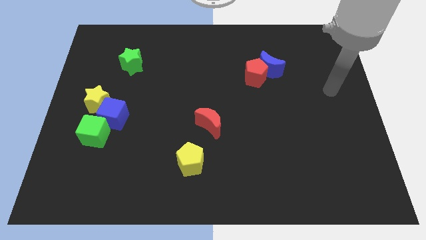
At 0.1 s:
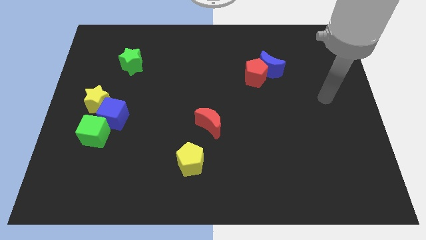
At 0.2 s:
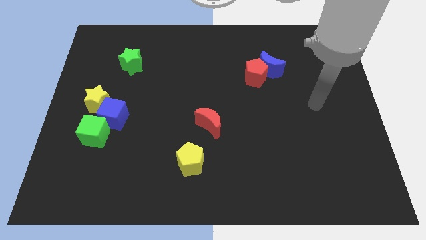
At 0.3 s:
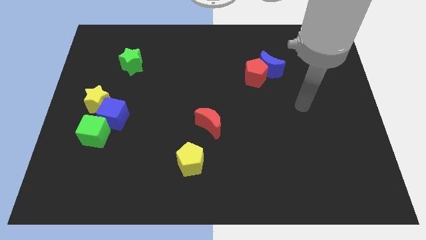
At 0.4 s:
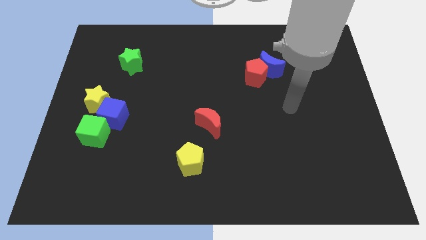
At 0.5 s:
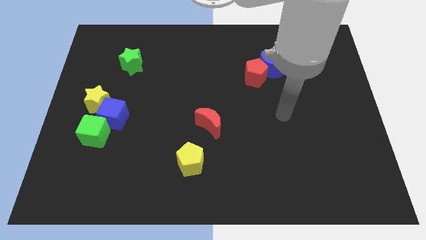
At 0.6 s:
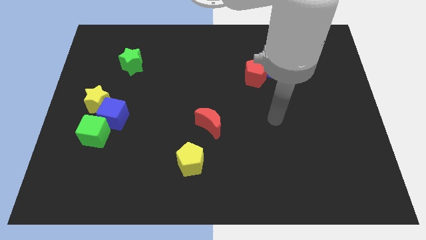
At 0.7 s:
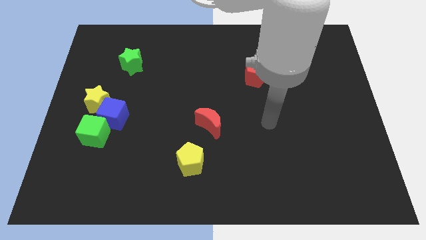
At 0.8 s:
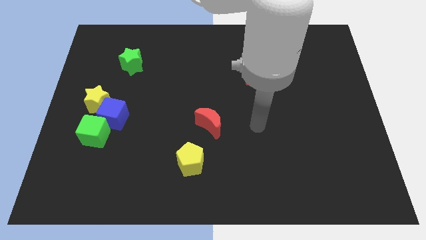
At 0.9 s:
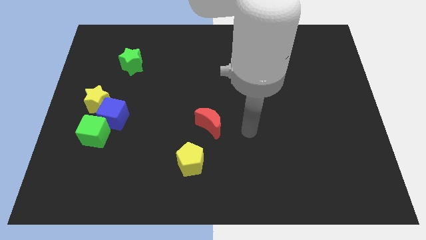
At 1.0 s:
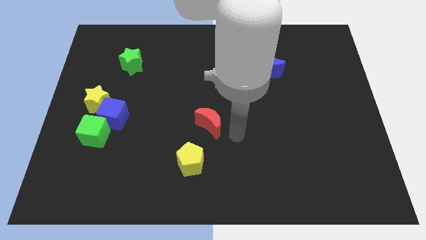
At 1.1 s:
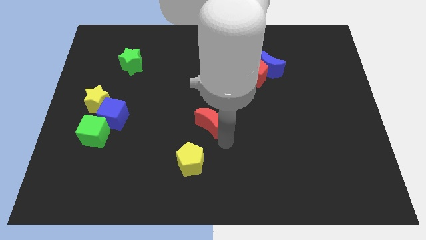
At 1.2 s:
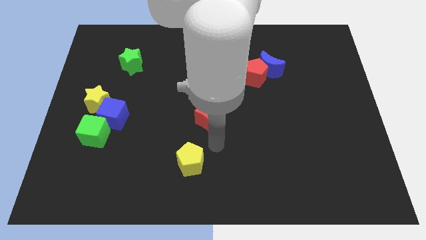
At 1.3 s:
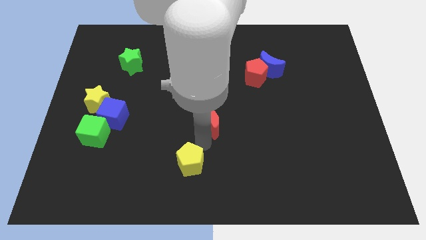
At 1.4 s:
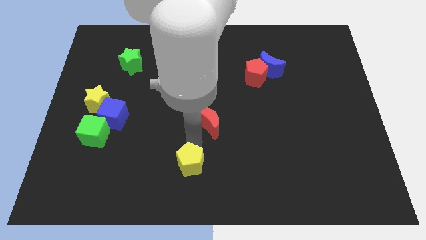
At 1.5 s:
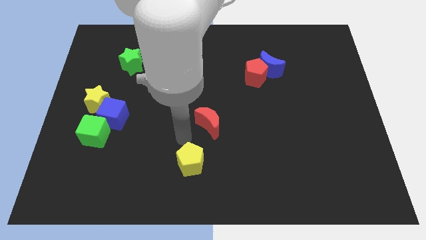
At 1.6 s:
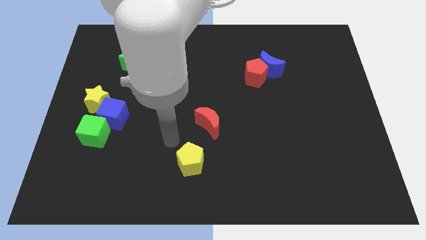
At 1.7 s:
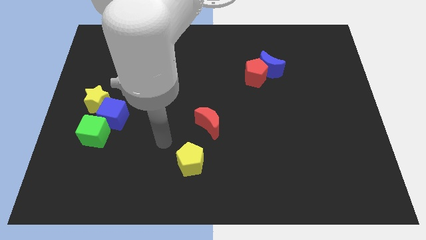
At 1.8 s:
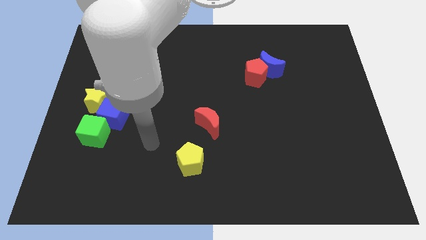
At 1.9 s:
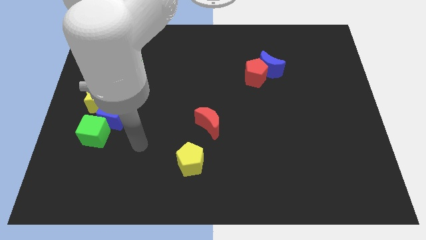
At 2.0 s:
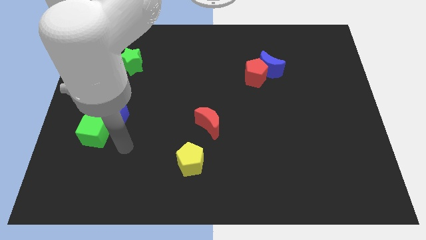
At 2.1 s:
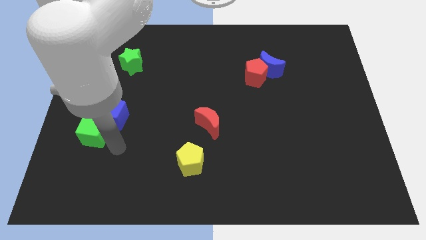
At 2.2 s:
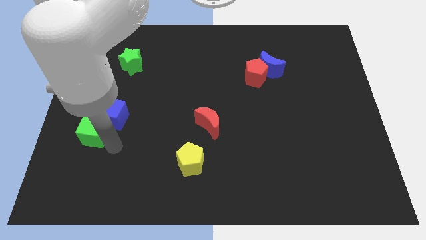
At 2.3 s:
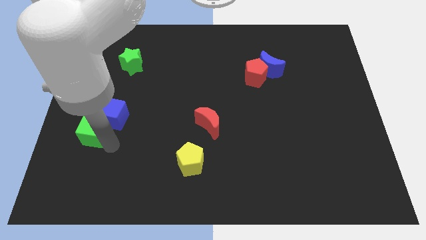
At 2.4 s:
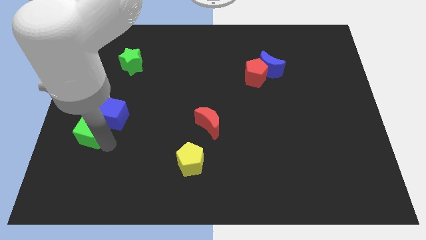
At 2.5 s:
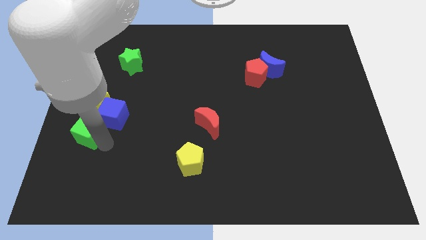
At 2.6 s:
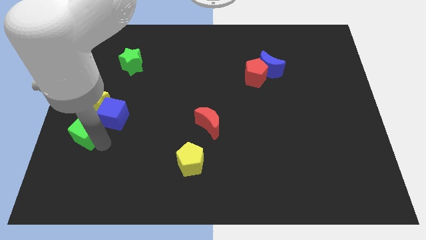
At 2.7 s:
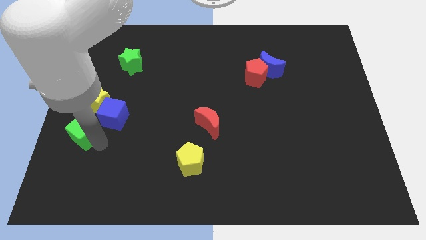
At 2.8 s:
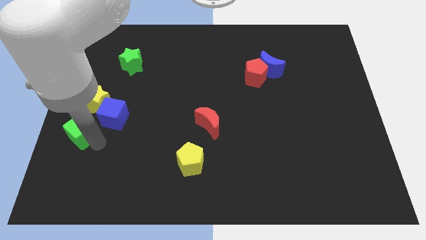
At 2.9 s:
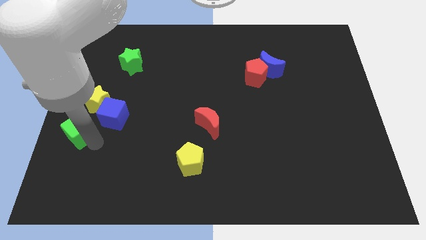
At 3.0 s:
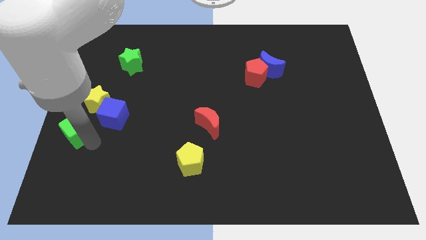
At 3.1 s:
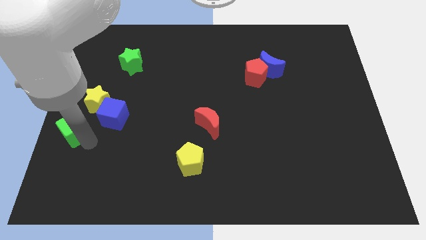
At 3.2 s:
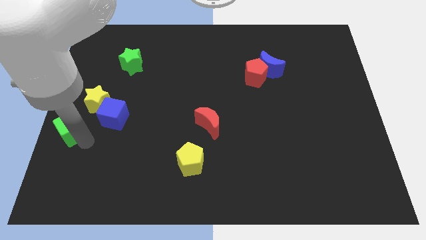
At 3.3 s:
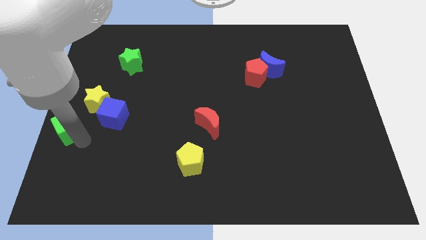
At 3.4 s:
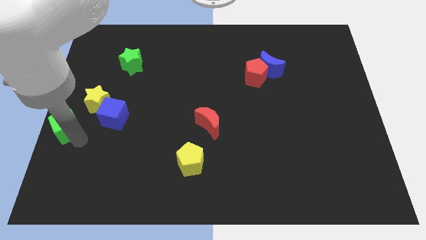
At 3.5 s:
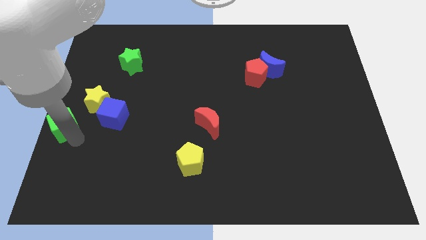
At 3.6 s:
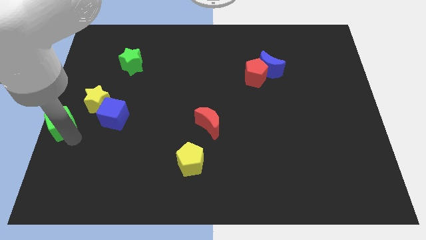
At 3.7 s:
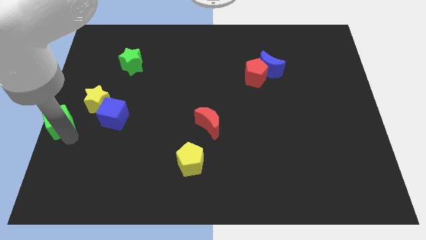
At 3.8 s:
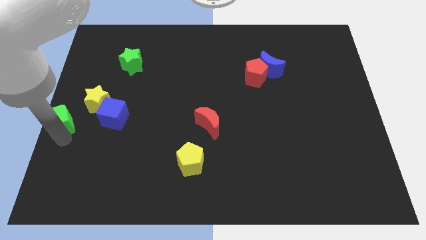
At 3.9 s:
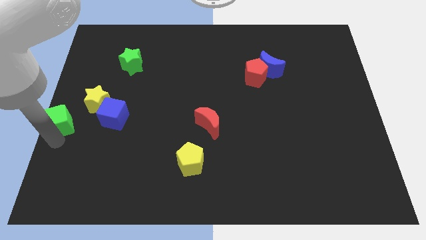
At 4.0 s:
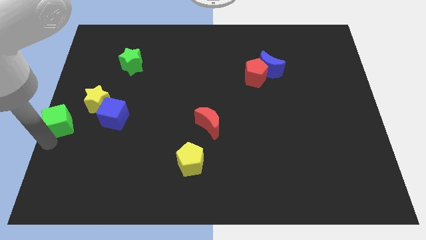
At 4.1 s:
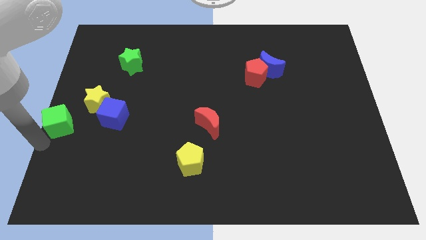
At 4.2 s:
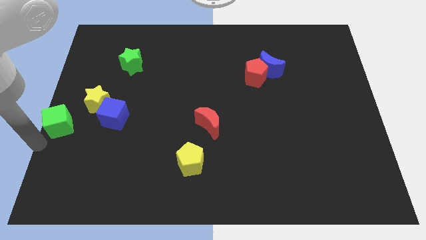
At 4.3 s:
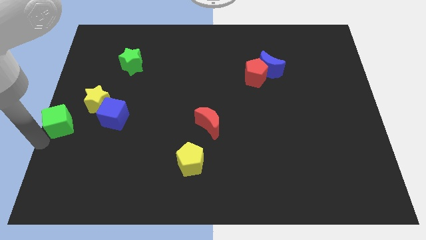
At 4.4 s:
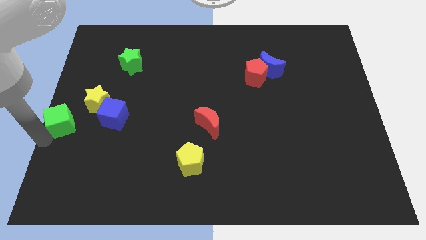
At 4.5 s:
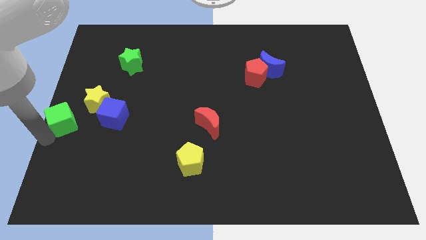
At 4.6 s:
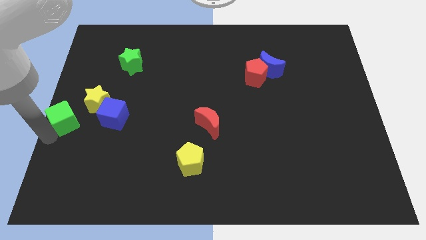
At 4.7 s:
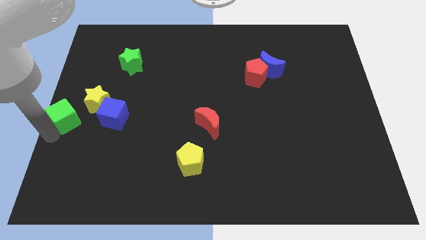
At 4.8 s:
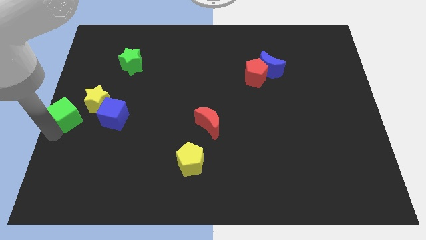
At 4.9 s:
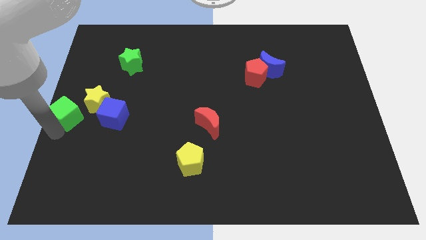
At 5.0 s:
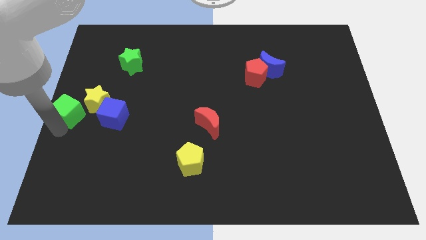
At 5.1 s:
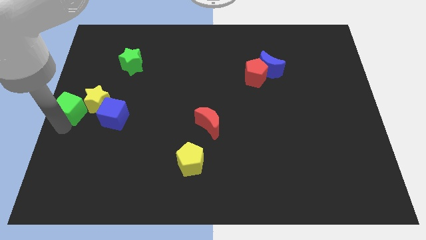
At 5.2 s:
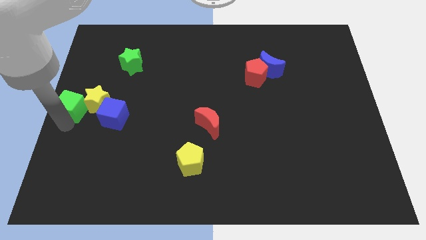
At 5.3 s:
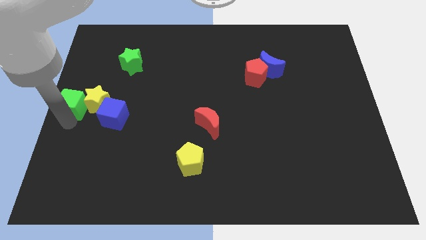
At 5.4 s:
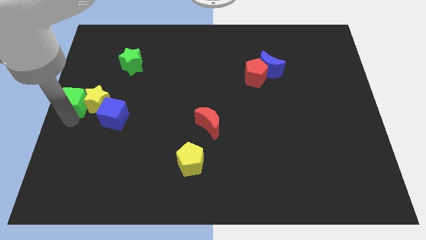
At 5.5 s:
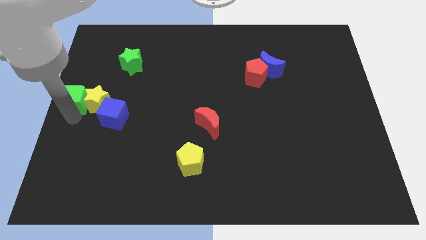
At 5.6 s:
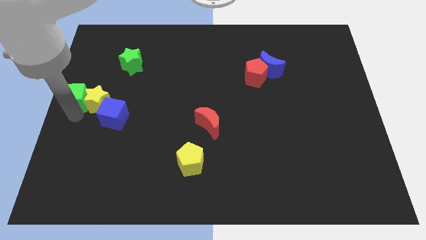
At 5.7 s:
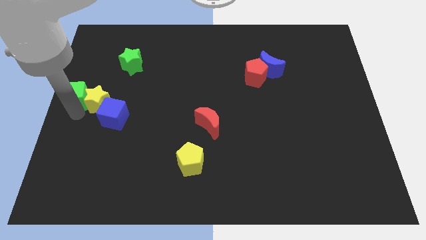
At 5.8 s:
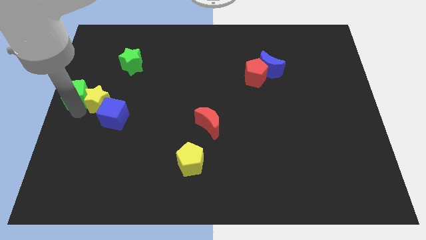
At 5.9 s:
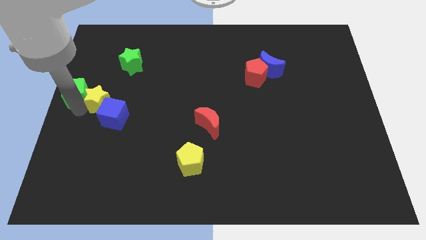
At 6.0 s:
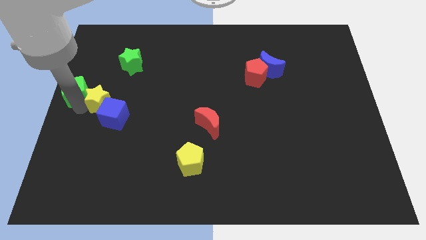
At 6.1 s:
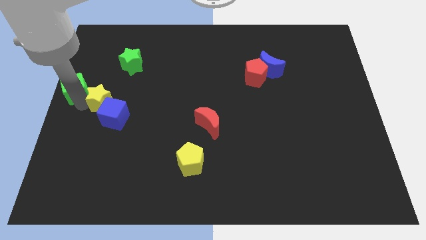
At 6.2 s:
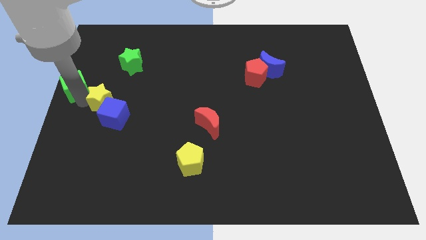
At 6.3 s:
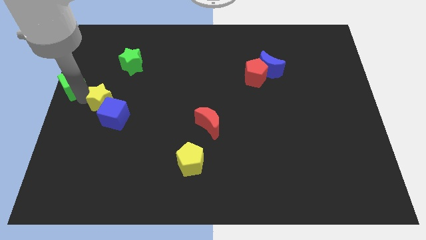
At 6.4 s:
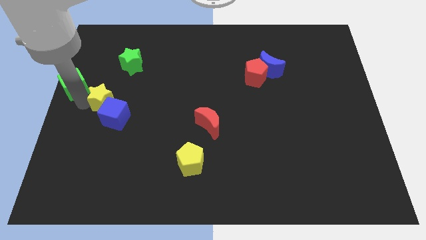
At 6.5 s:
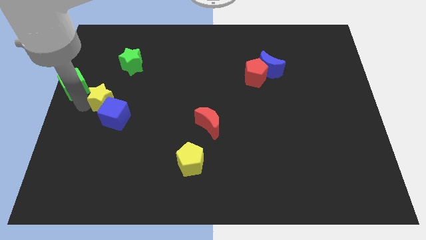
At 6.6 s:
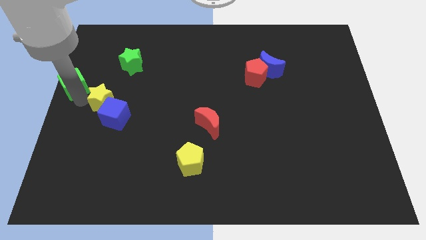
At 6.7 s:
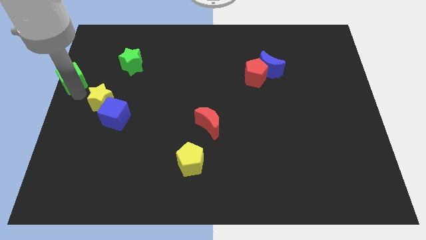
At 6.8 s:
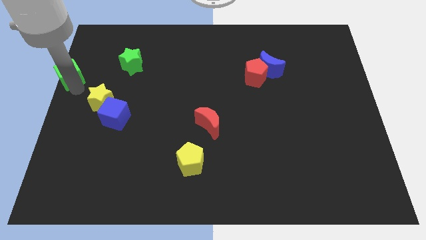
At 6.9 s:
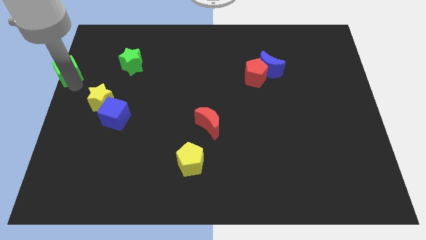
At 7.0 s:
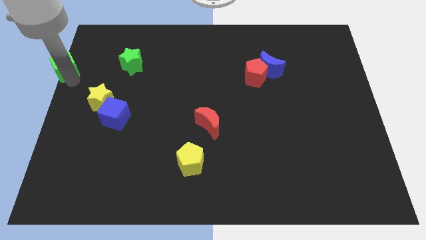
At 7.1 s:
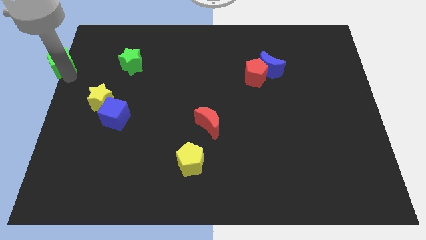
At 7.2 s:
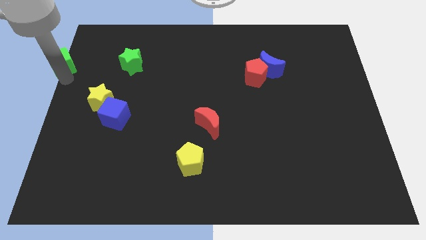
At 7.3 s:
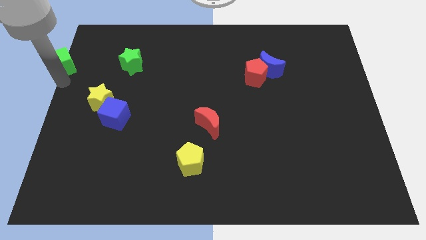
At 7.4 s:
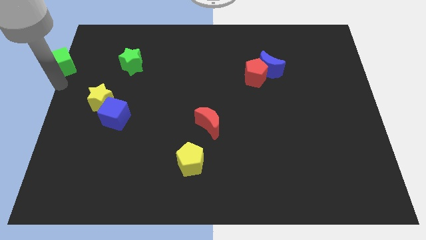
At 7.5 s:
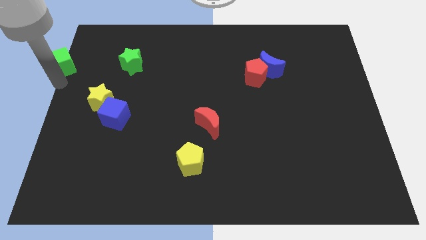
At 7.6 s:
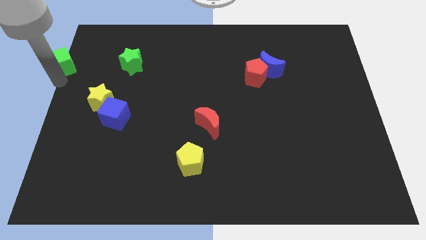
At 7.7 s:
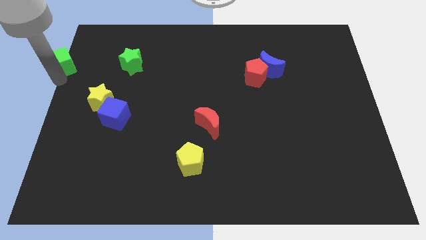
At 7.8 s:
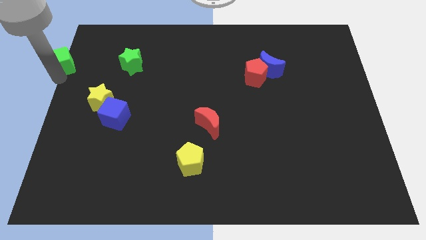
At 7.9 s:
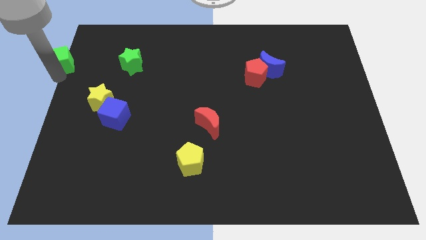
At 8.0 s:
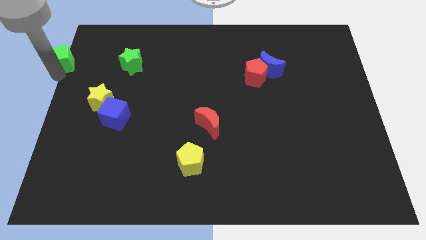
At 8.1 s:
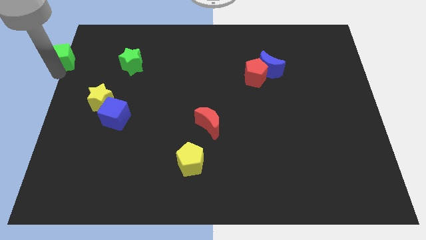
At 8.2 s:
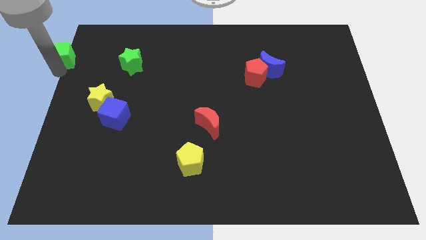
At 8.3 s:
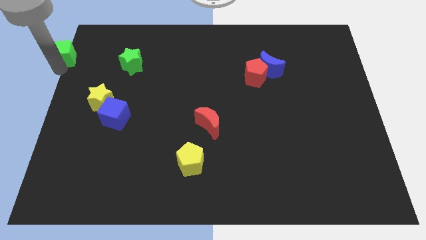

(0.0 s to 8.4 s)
put the green cube to the top left of the board
